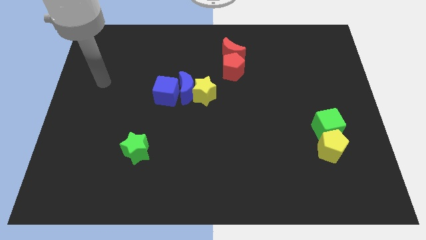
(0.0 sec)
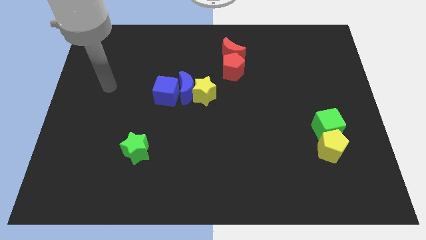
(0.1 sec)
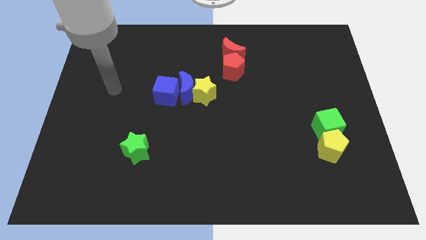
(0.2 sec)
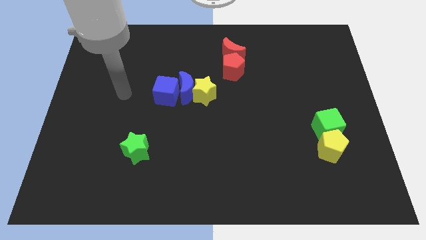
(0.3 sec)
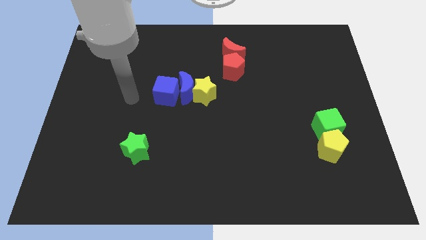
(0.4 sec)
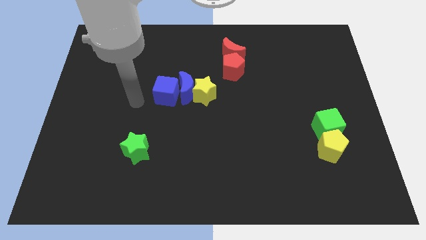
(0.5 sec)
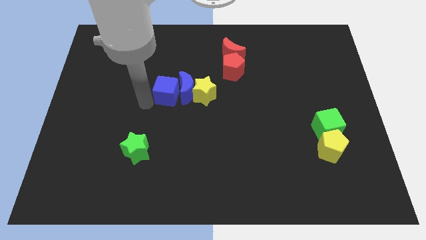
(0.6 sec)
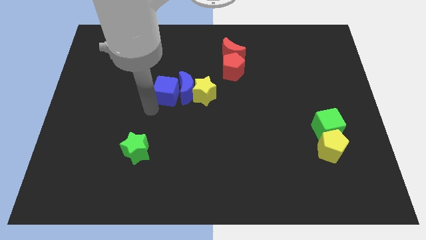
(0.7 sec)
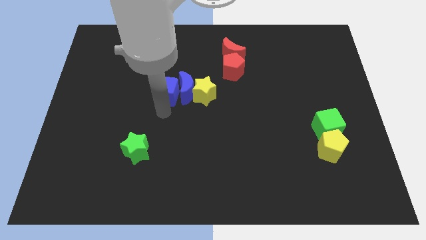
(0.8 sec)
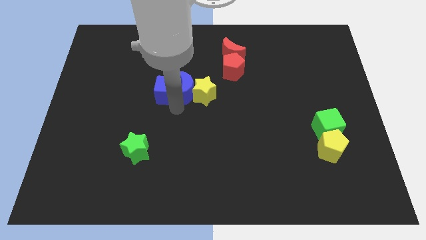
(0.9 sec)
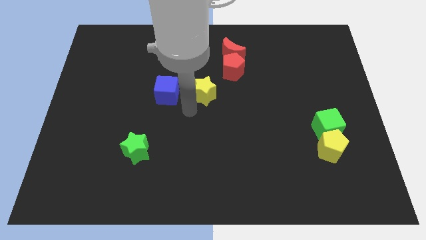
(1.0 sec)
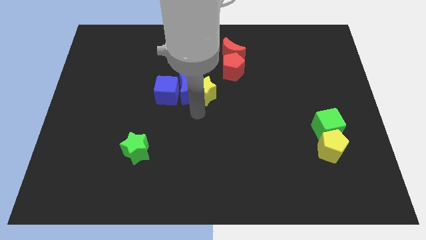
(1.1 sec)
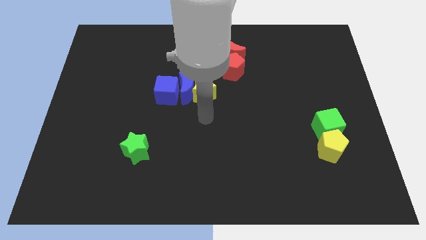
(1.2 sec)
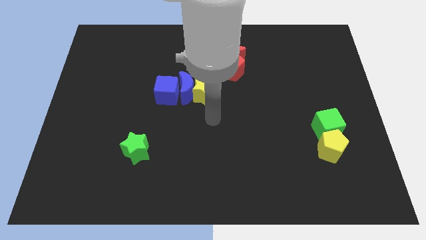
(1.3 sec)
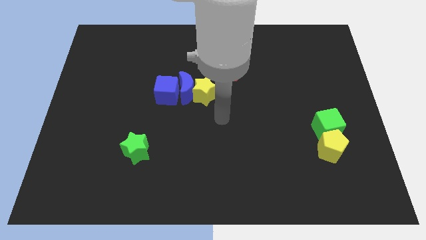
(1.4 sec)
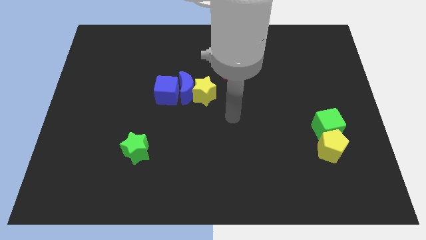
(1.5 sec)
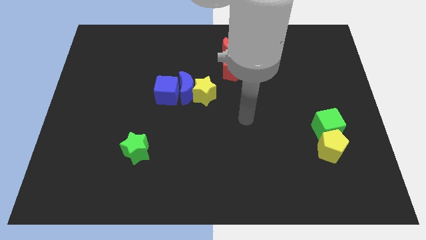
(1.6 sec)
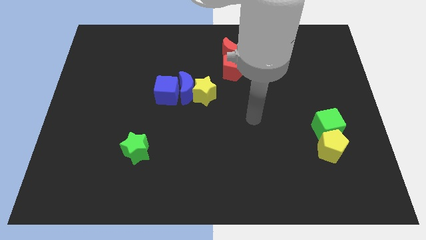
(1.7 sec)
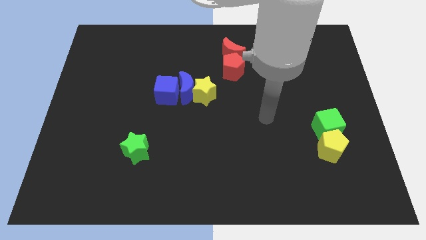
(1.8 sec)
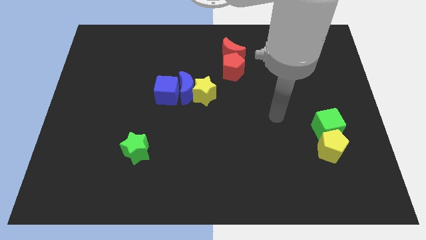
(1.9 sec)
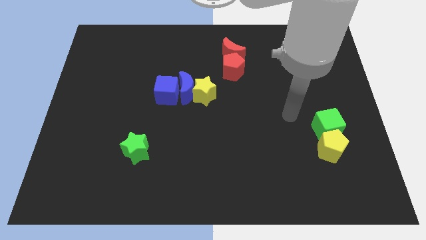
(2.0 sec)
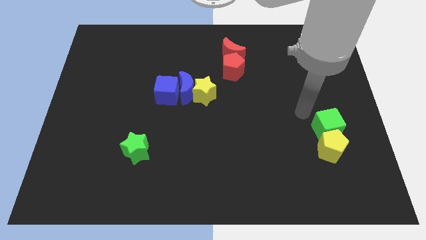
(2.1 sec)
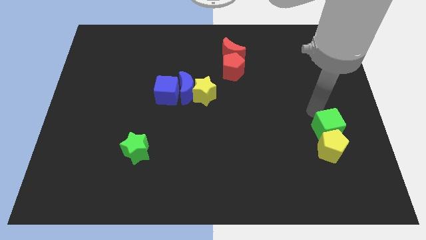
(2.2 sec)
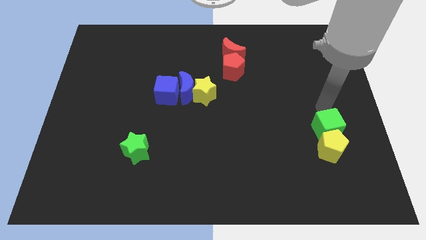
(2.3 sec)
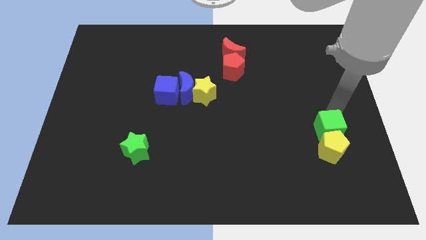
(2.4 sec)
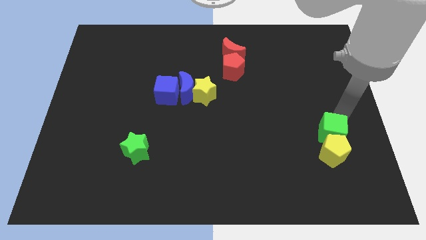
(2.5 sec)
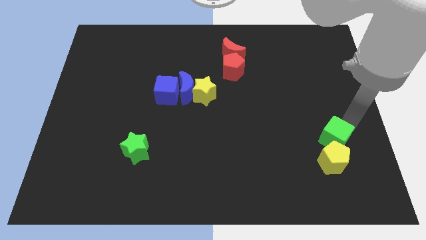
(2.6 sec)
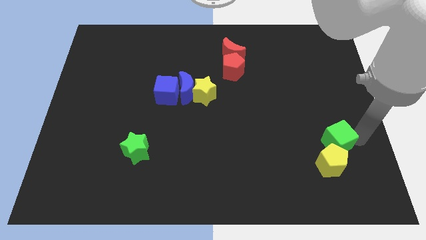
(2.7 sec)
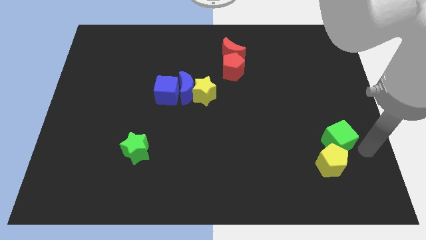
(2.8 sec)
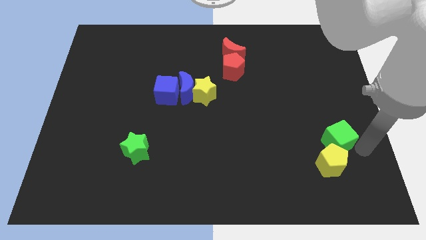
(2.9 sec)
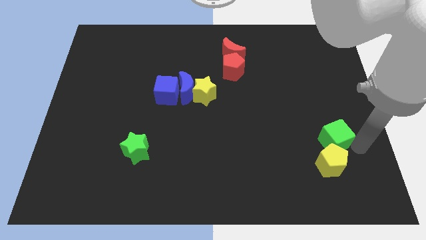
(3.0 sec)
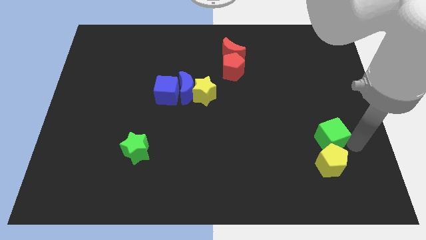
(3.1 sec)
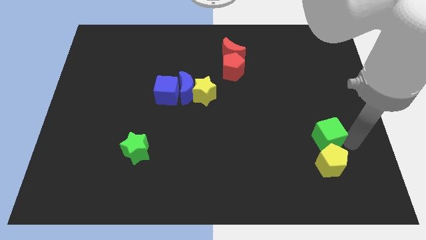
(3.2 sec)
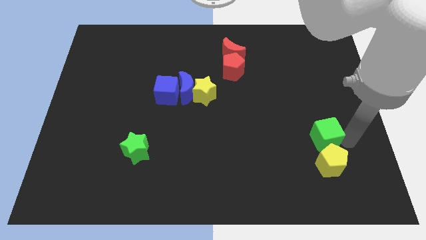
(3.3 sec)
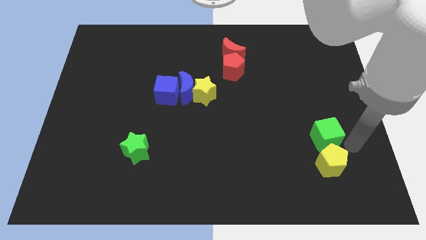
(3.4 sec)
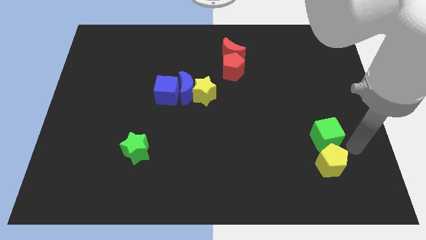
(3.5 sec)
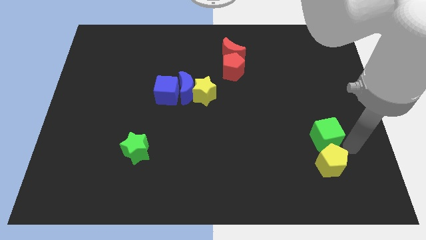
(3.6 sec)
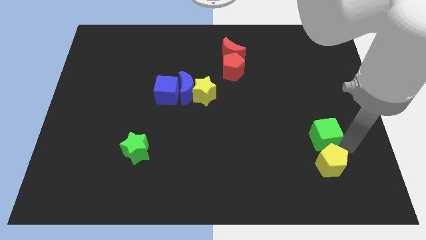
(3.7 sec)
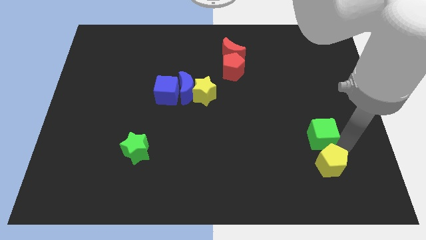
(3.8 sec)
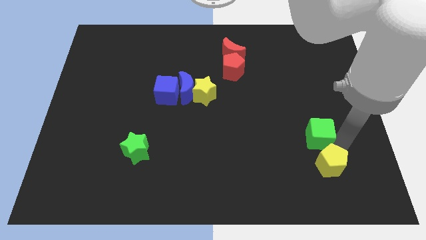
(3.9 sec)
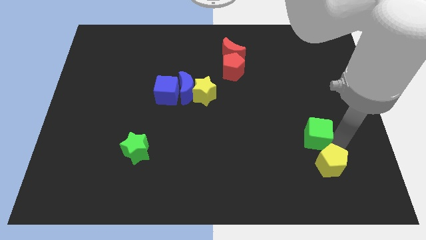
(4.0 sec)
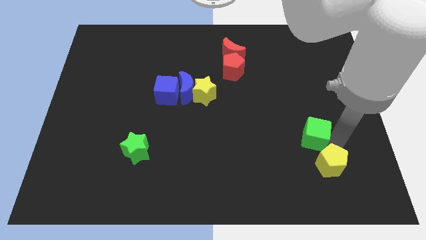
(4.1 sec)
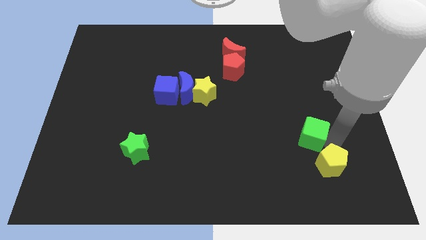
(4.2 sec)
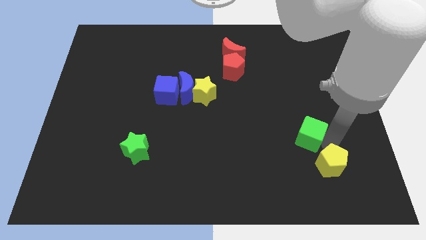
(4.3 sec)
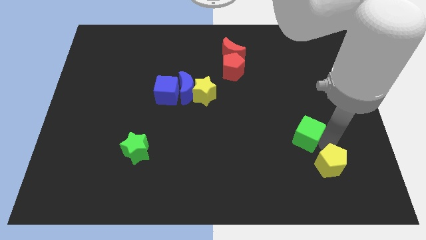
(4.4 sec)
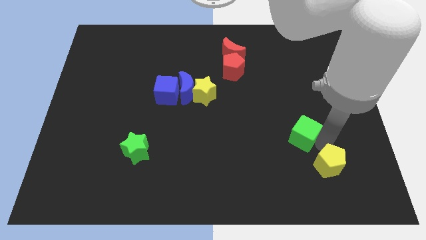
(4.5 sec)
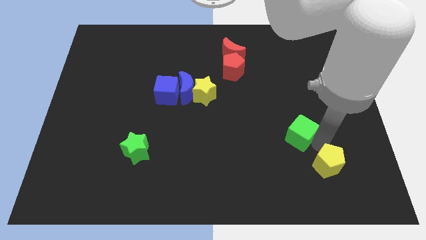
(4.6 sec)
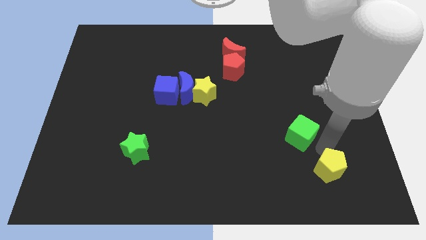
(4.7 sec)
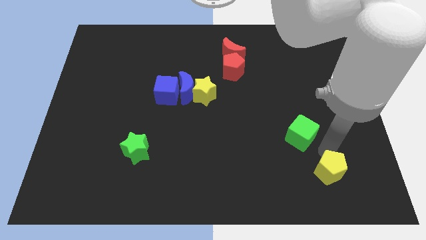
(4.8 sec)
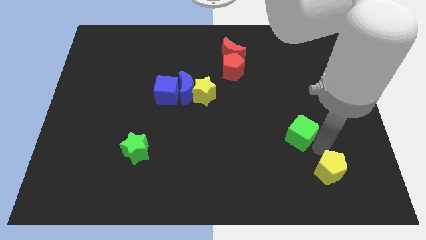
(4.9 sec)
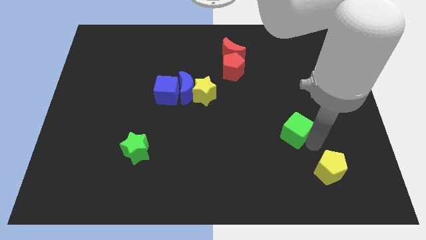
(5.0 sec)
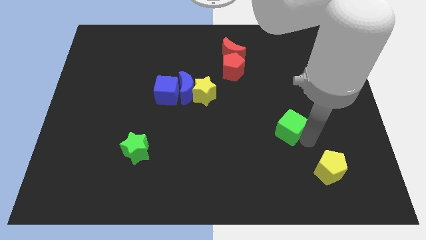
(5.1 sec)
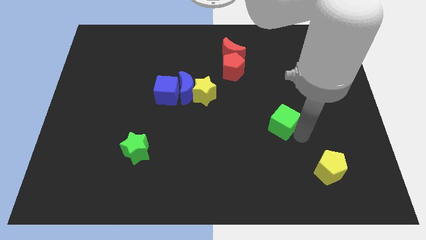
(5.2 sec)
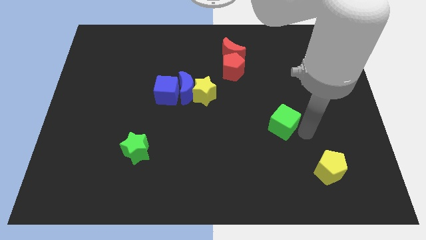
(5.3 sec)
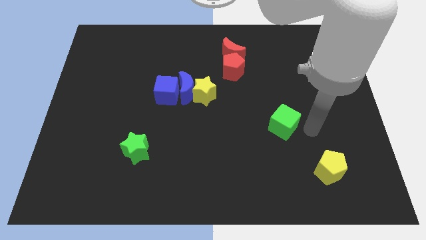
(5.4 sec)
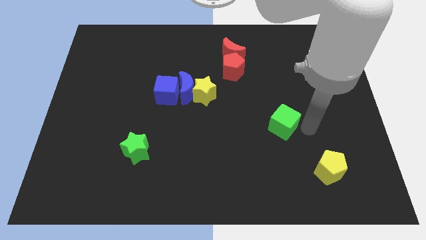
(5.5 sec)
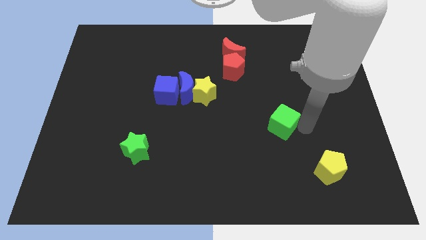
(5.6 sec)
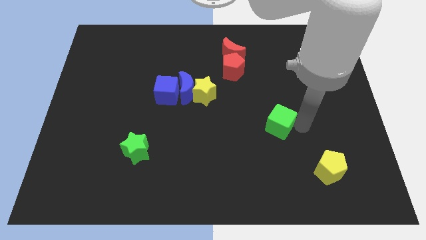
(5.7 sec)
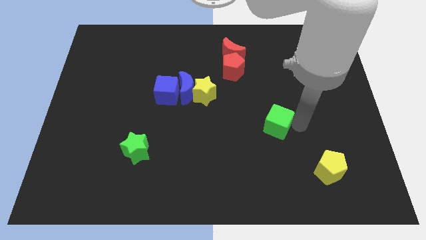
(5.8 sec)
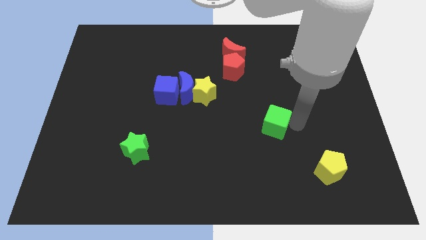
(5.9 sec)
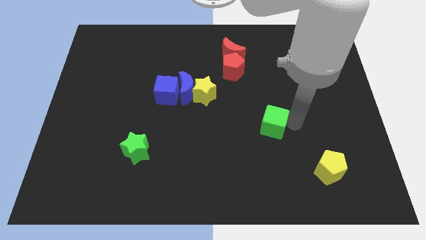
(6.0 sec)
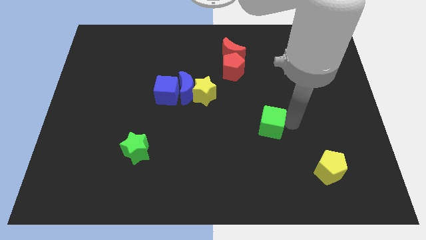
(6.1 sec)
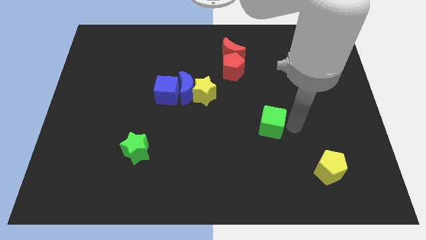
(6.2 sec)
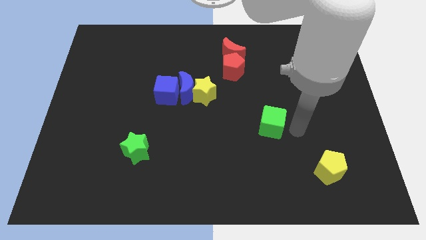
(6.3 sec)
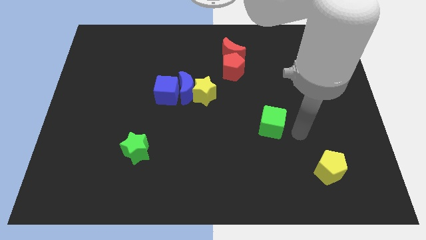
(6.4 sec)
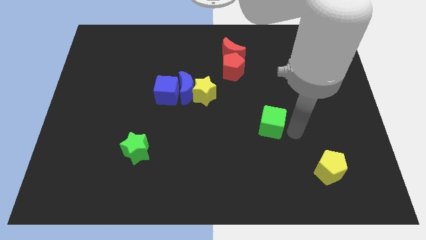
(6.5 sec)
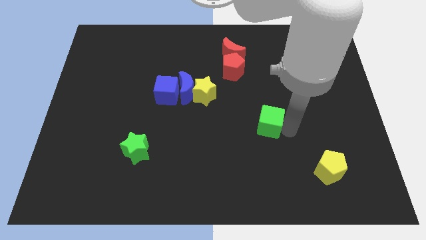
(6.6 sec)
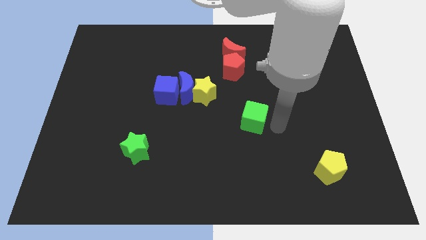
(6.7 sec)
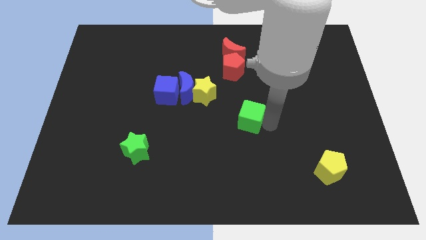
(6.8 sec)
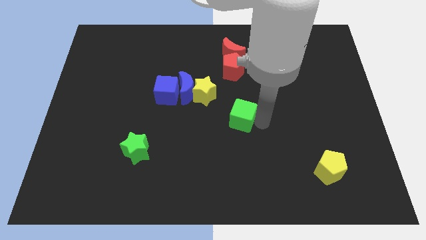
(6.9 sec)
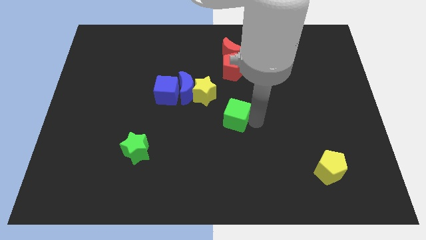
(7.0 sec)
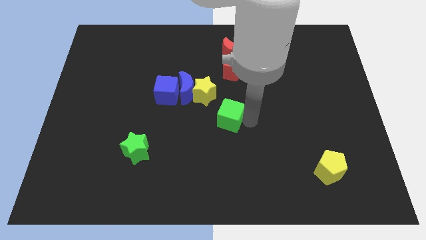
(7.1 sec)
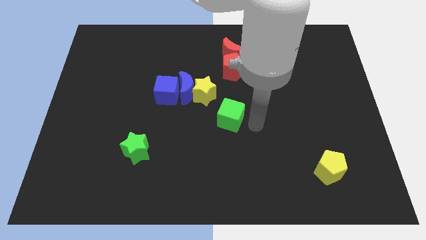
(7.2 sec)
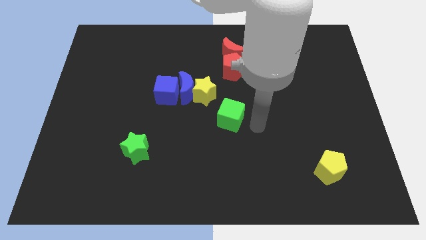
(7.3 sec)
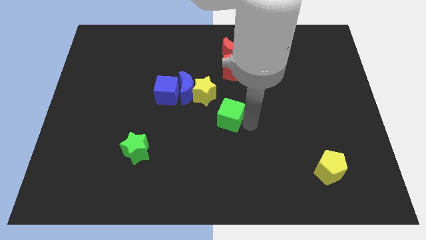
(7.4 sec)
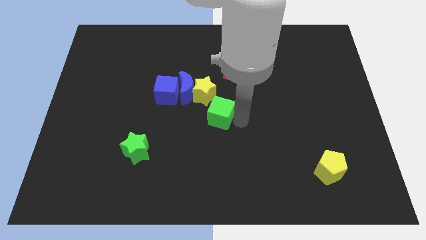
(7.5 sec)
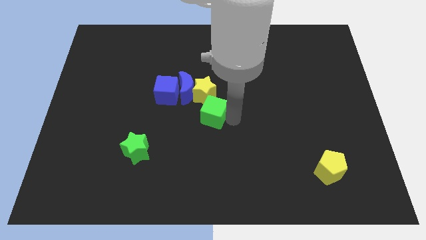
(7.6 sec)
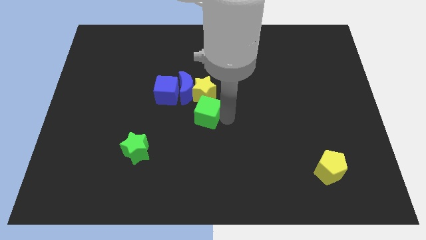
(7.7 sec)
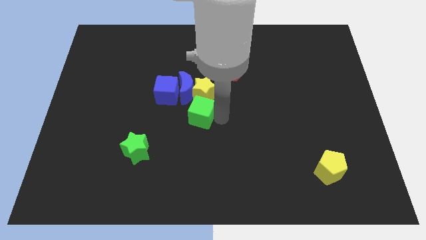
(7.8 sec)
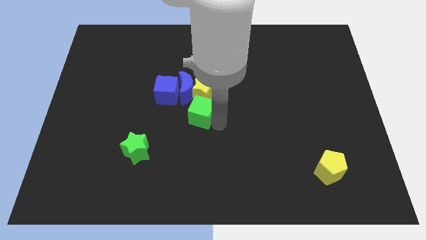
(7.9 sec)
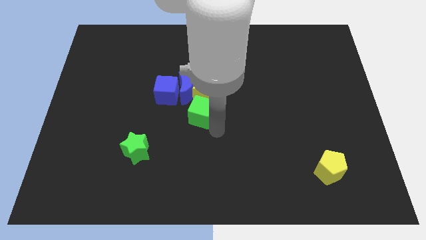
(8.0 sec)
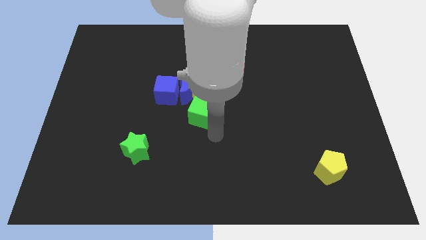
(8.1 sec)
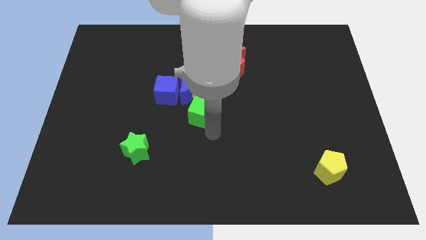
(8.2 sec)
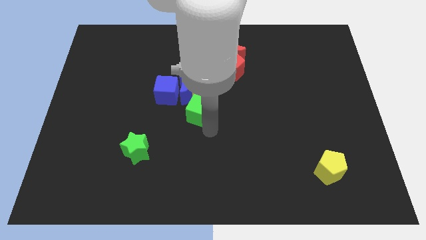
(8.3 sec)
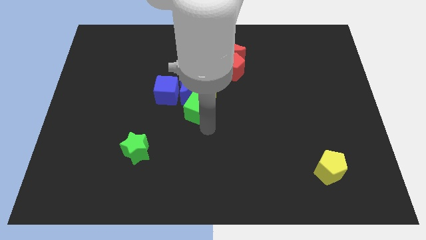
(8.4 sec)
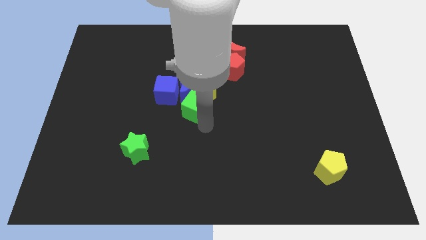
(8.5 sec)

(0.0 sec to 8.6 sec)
push the green cube next to the blue moon
